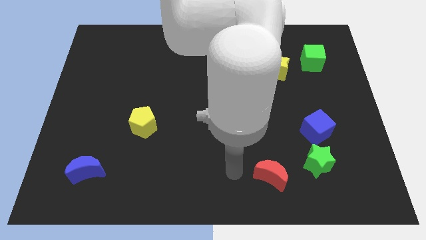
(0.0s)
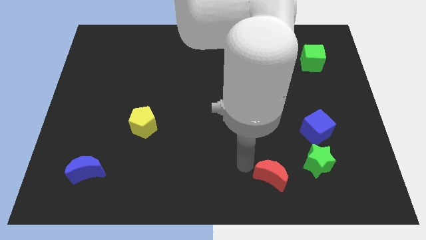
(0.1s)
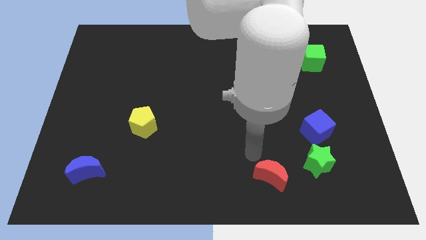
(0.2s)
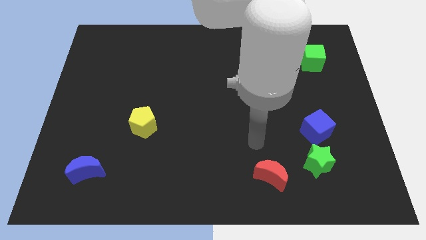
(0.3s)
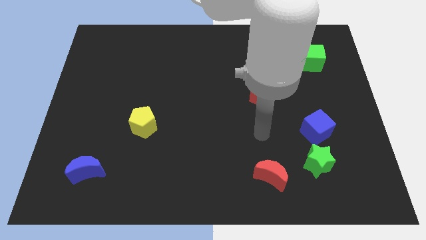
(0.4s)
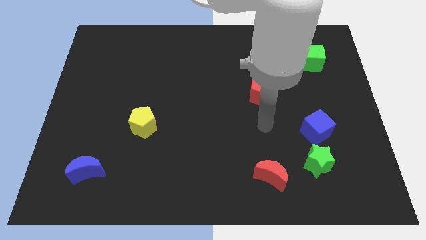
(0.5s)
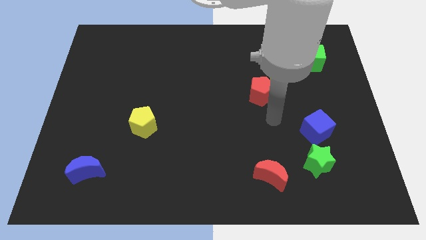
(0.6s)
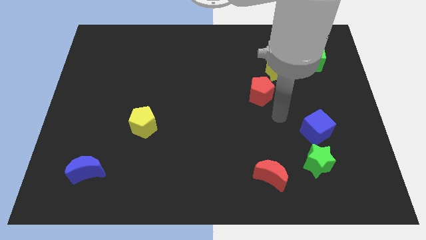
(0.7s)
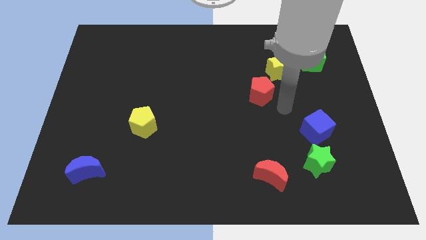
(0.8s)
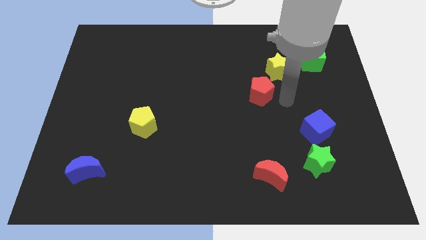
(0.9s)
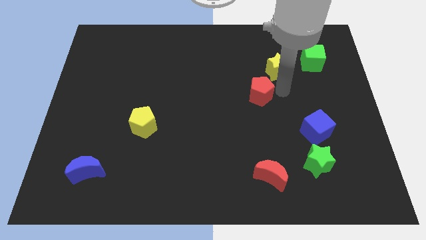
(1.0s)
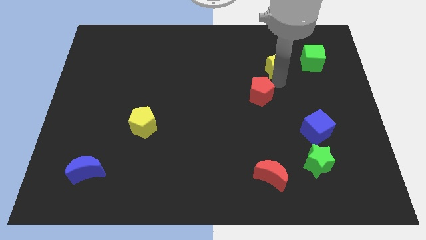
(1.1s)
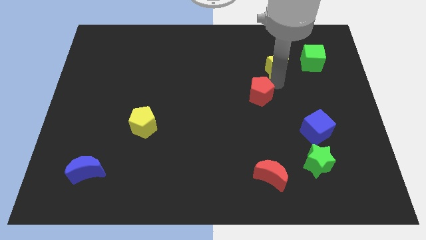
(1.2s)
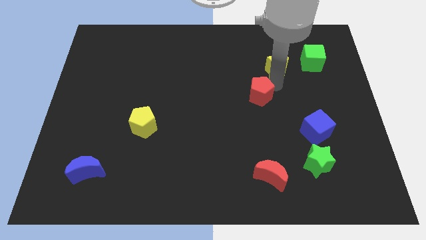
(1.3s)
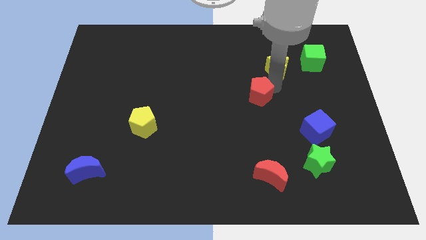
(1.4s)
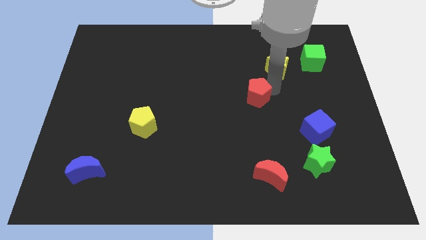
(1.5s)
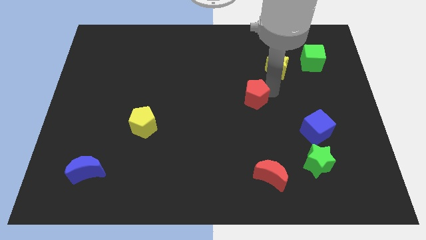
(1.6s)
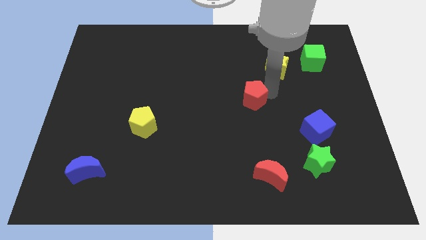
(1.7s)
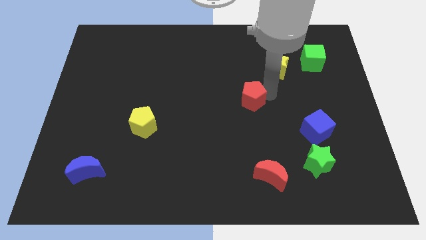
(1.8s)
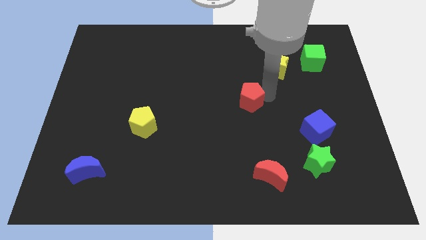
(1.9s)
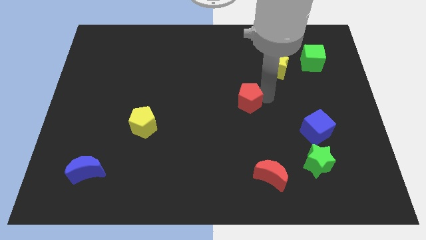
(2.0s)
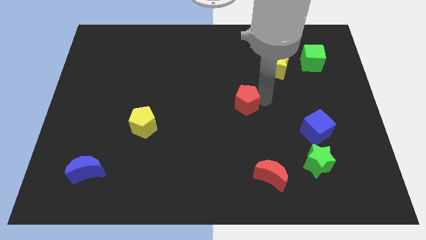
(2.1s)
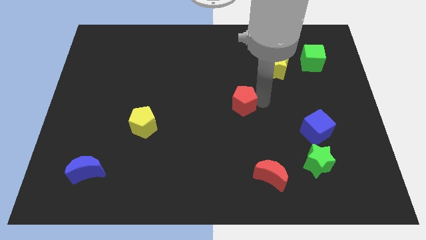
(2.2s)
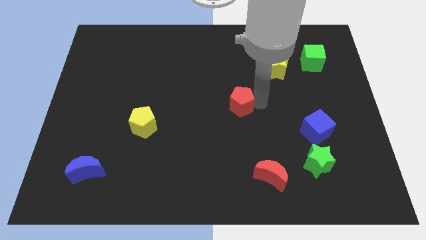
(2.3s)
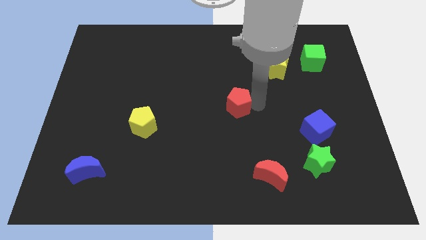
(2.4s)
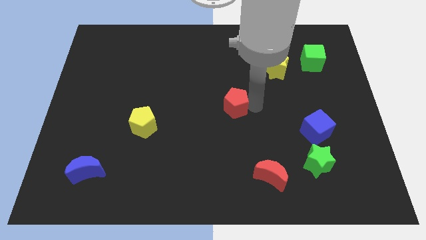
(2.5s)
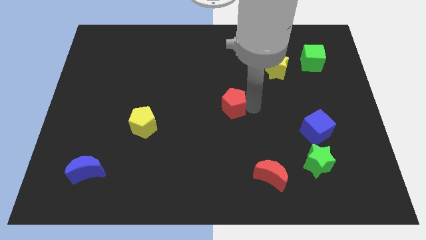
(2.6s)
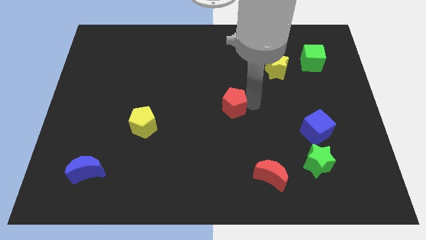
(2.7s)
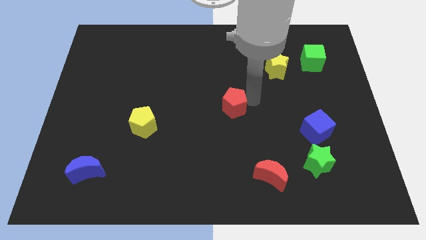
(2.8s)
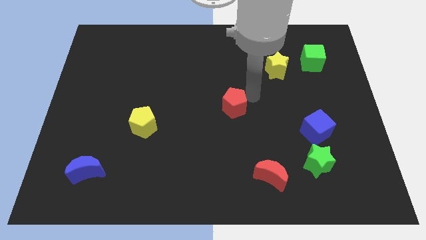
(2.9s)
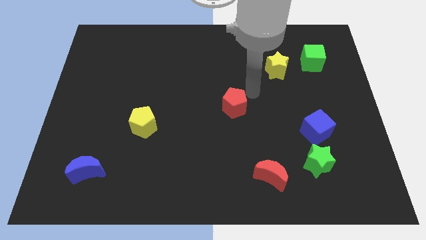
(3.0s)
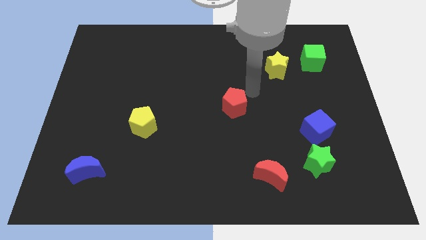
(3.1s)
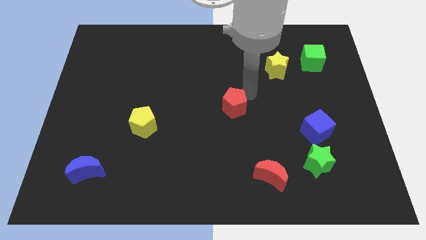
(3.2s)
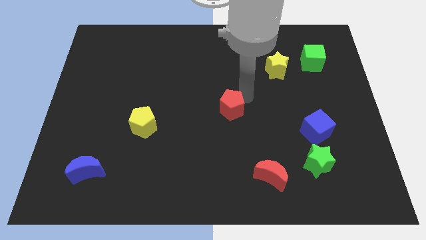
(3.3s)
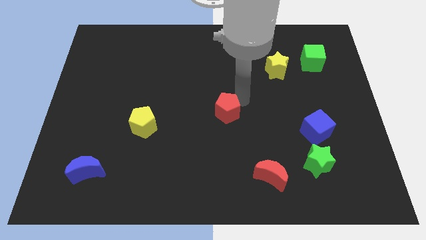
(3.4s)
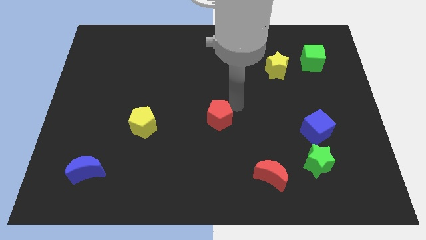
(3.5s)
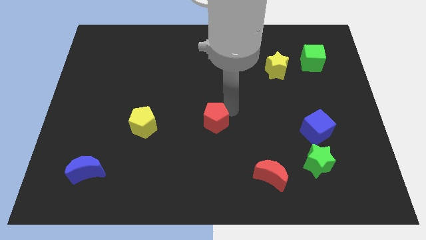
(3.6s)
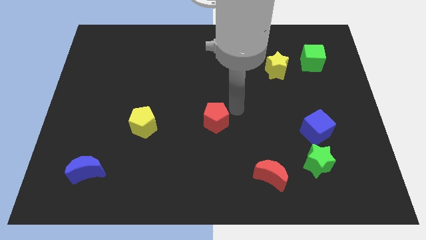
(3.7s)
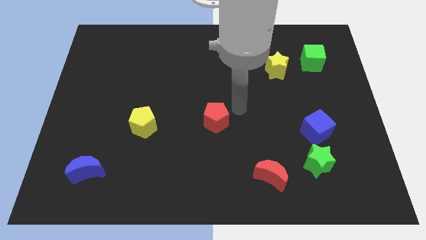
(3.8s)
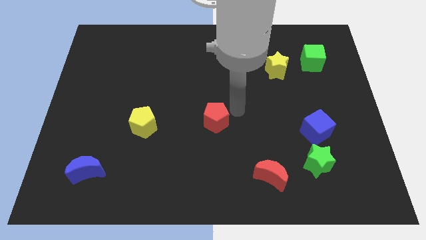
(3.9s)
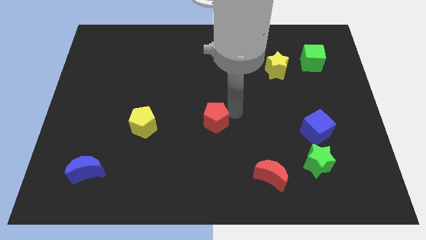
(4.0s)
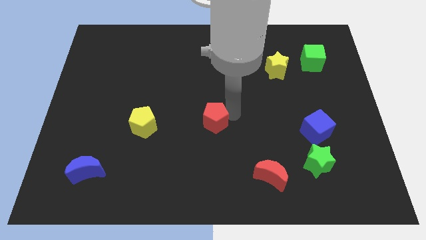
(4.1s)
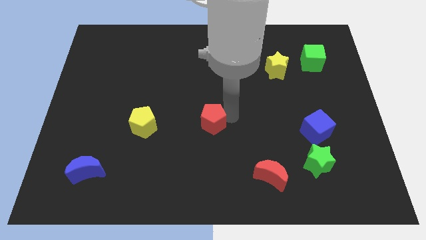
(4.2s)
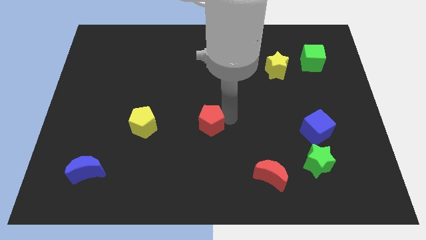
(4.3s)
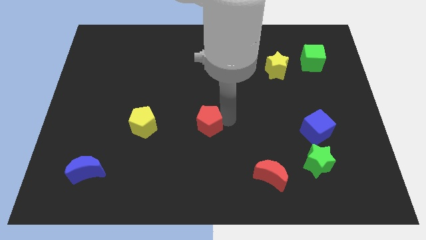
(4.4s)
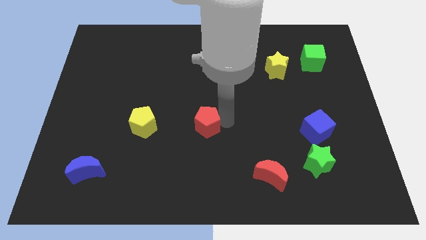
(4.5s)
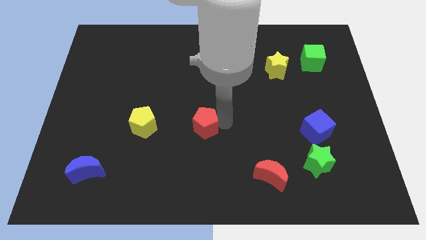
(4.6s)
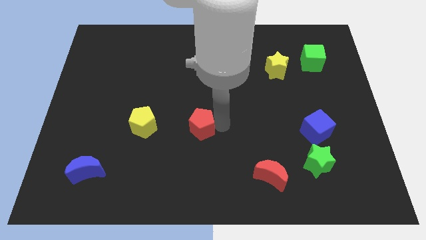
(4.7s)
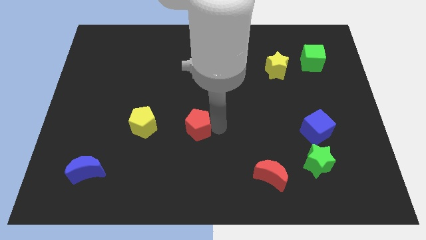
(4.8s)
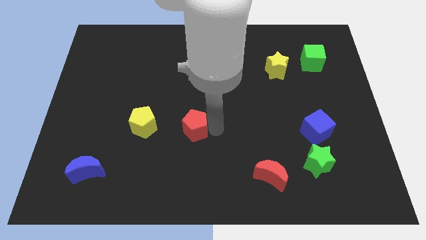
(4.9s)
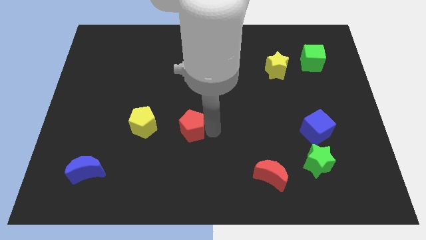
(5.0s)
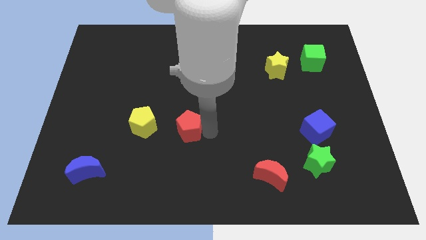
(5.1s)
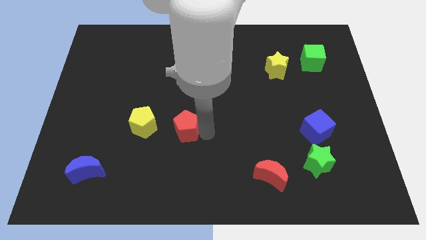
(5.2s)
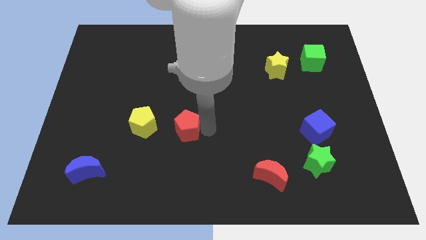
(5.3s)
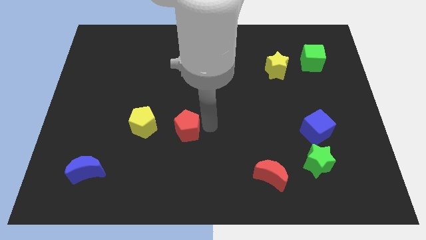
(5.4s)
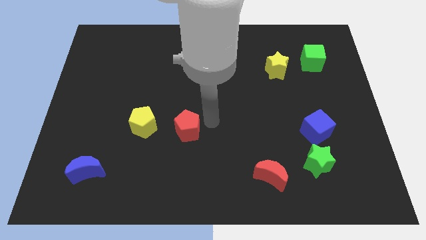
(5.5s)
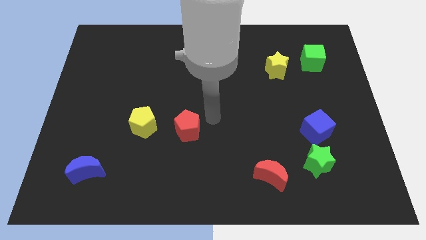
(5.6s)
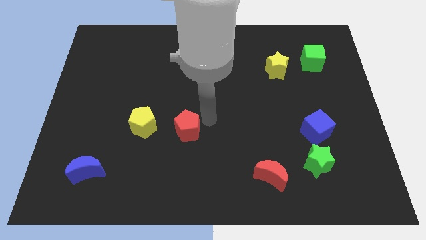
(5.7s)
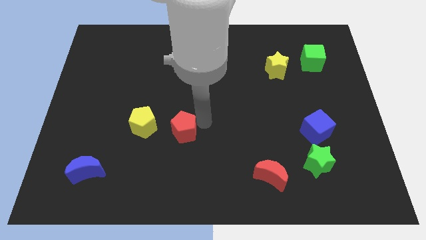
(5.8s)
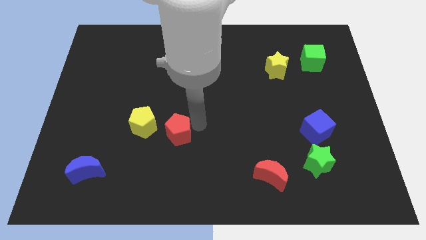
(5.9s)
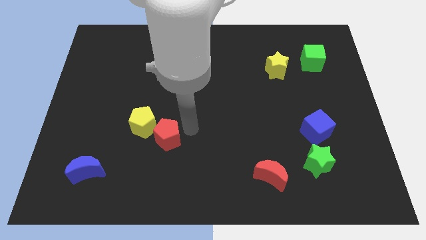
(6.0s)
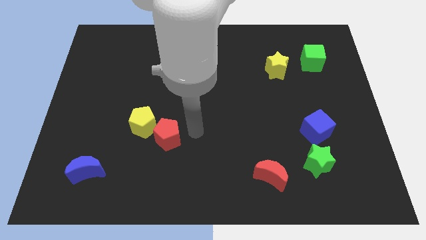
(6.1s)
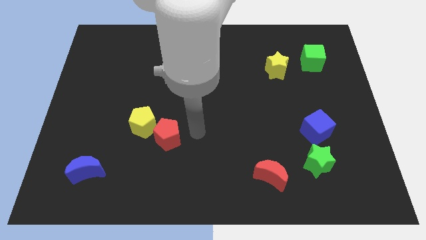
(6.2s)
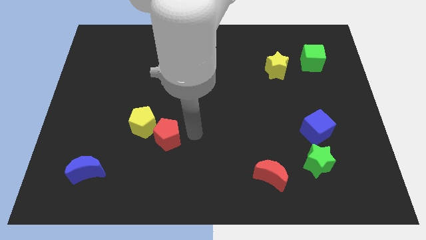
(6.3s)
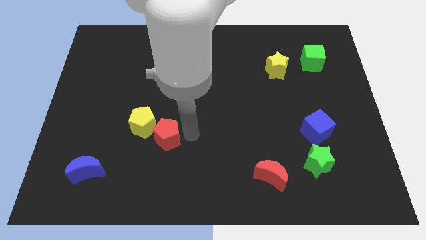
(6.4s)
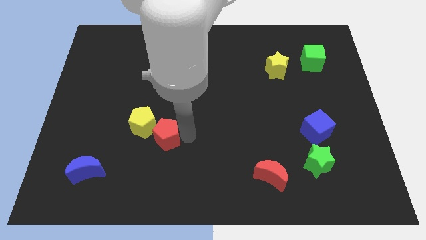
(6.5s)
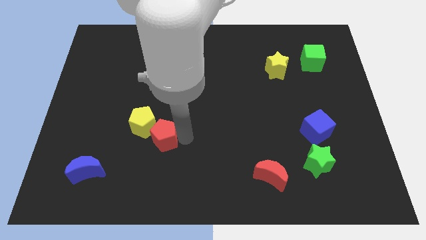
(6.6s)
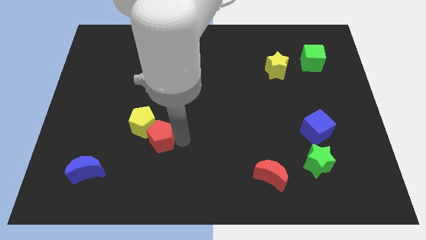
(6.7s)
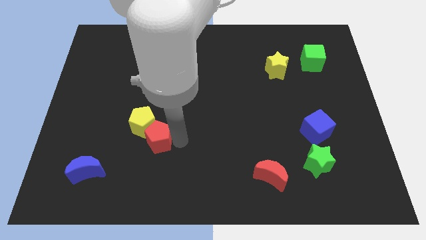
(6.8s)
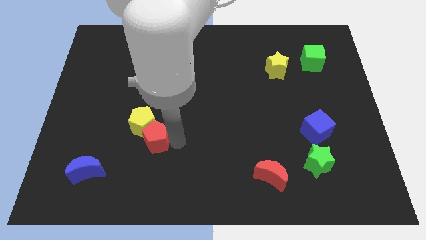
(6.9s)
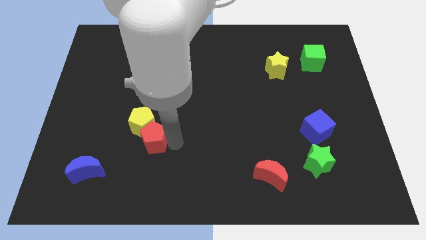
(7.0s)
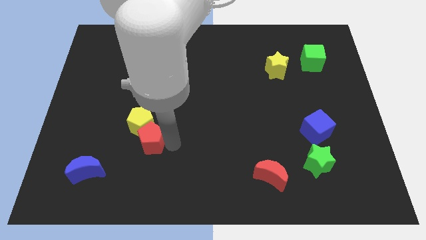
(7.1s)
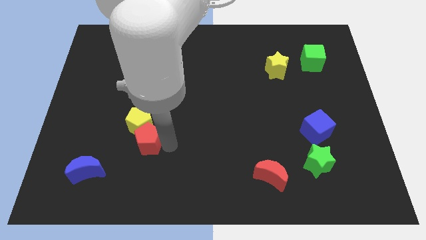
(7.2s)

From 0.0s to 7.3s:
move the red pentagon to the bottom left of the yellow pentagon
